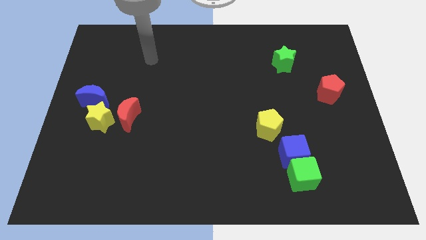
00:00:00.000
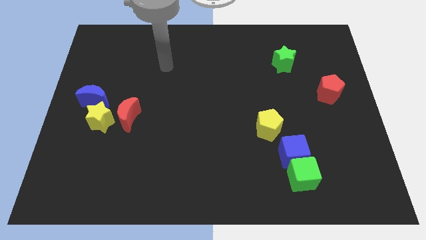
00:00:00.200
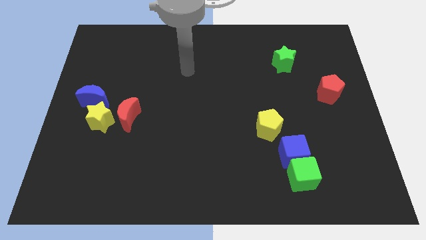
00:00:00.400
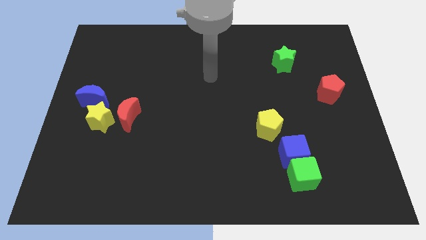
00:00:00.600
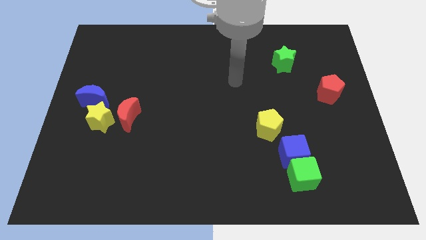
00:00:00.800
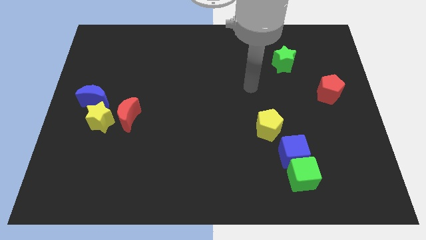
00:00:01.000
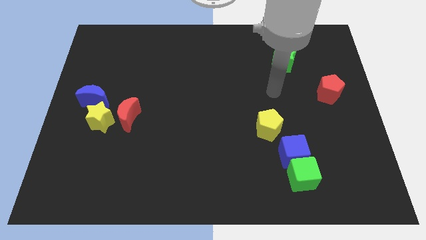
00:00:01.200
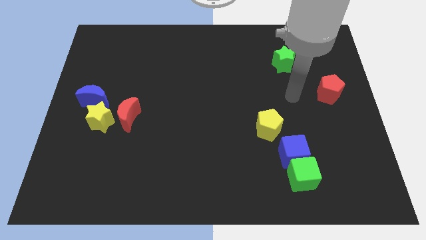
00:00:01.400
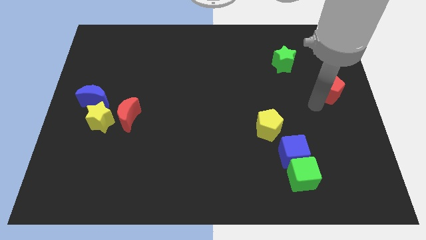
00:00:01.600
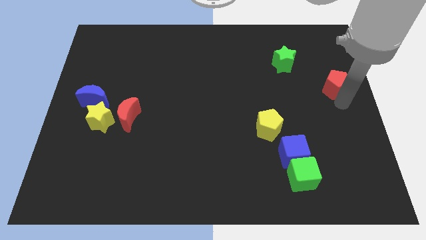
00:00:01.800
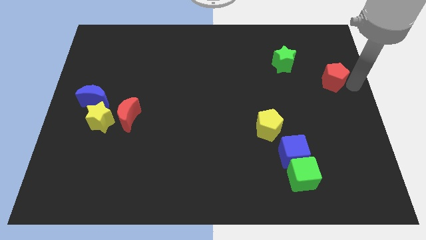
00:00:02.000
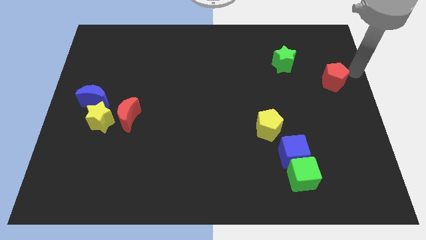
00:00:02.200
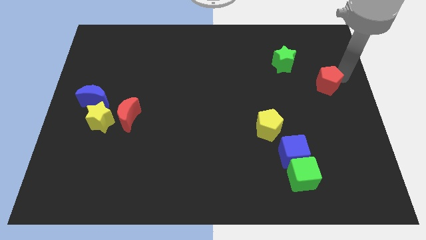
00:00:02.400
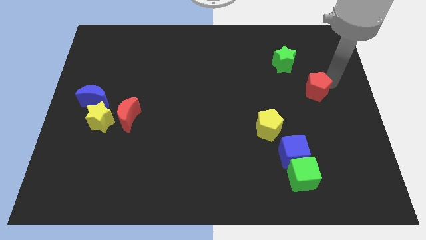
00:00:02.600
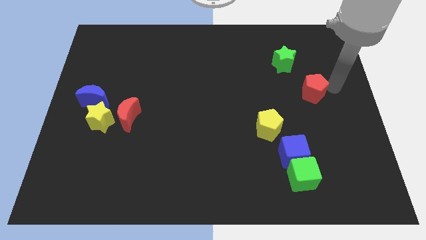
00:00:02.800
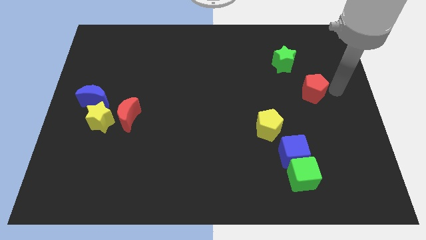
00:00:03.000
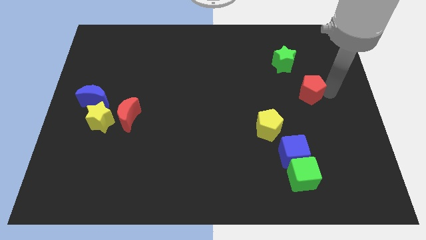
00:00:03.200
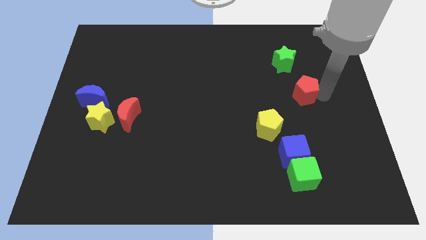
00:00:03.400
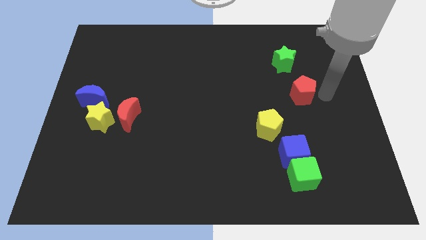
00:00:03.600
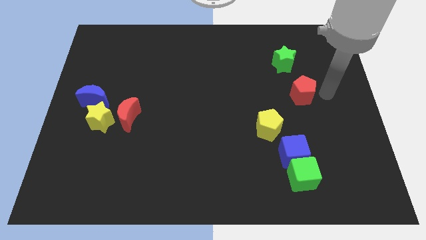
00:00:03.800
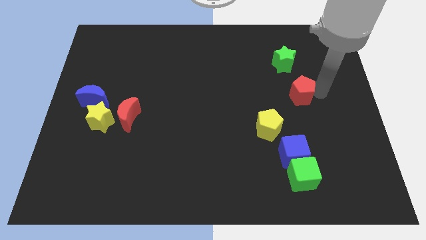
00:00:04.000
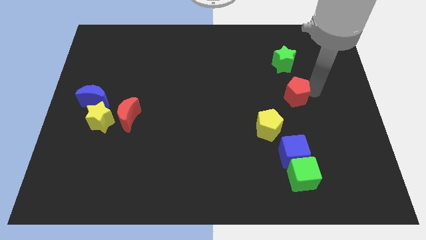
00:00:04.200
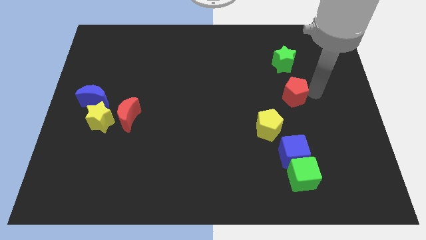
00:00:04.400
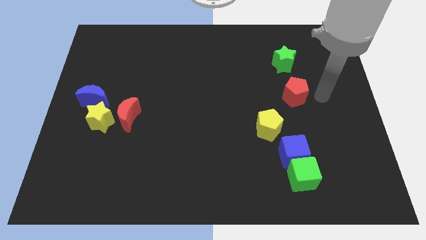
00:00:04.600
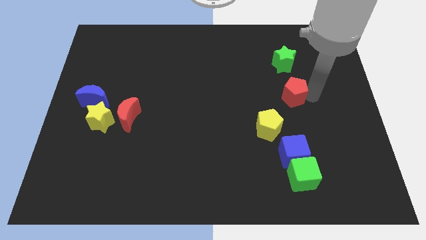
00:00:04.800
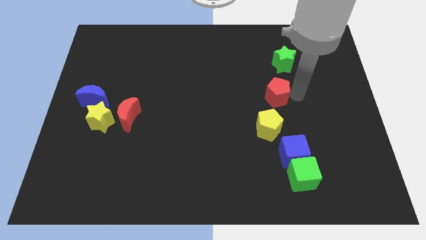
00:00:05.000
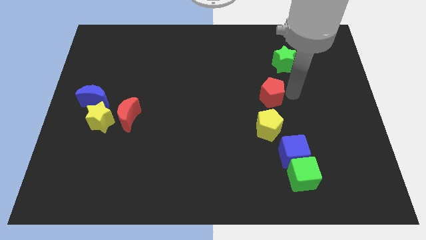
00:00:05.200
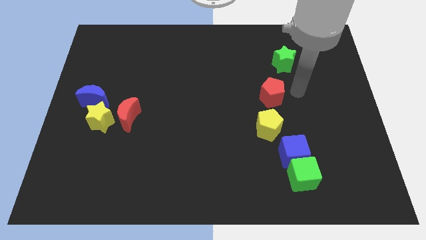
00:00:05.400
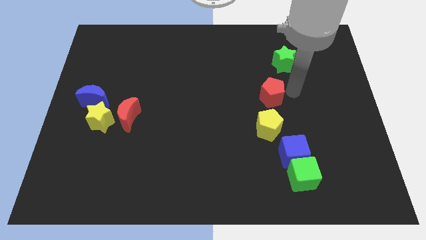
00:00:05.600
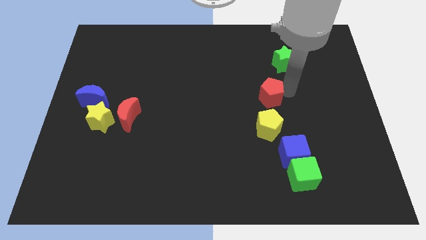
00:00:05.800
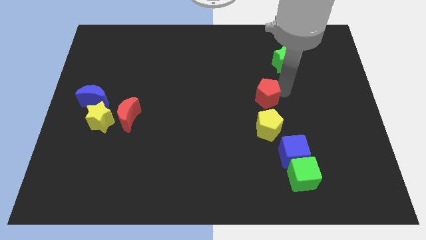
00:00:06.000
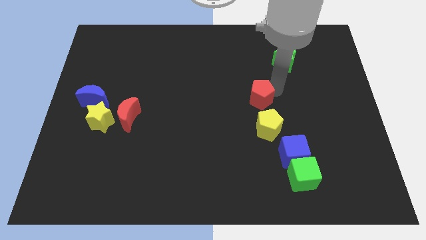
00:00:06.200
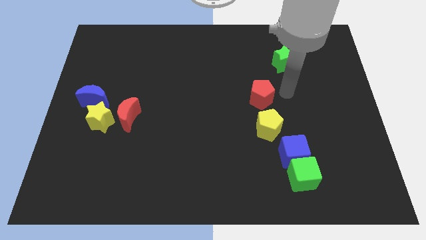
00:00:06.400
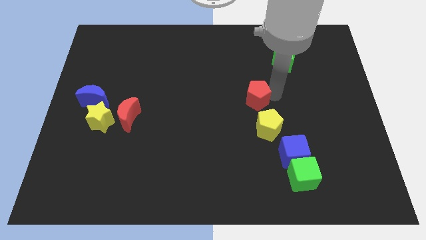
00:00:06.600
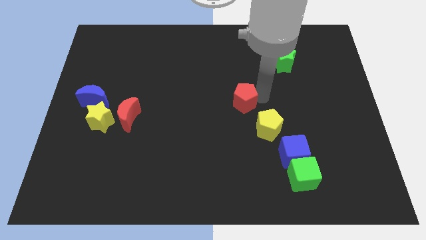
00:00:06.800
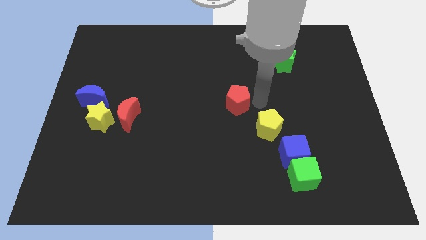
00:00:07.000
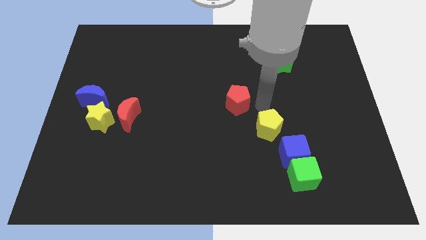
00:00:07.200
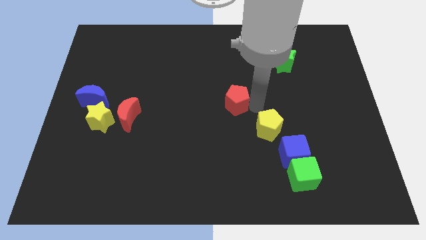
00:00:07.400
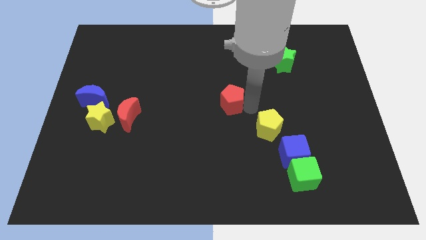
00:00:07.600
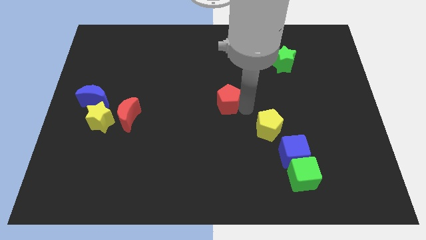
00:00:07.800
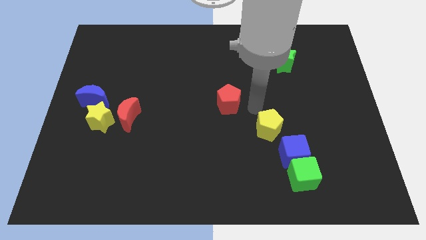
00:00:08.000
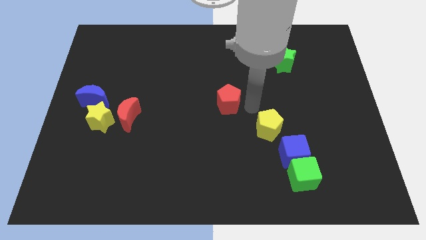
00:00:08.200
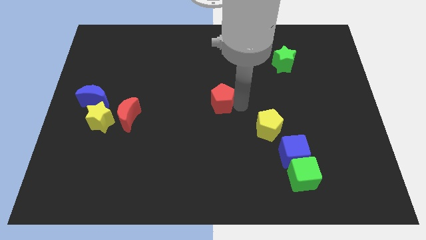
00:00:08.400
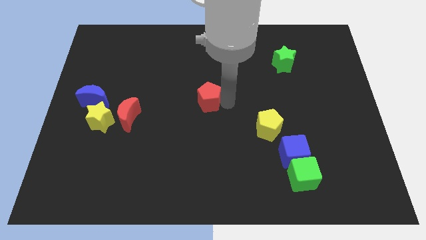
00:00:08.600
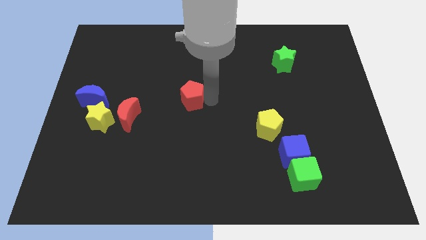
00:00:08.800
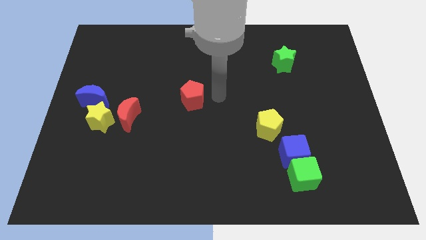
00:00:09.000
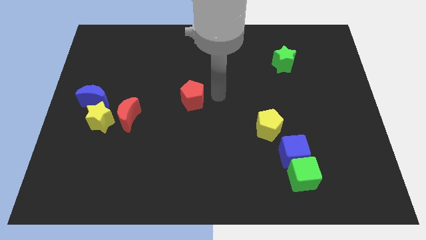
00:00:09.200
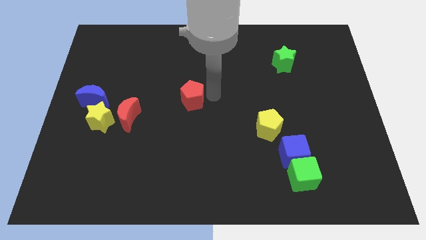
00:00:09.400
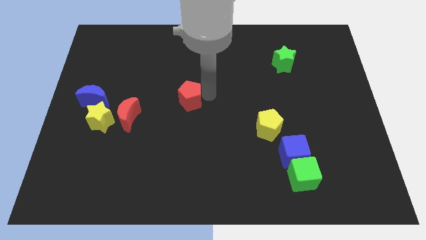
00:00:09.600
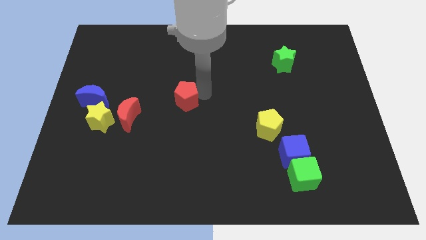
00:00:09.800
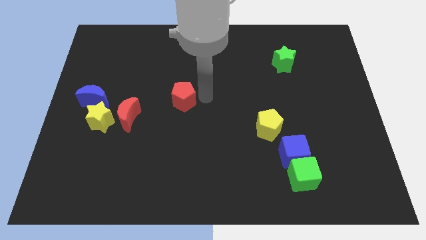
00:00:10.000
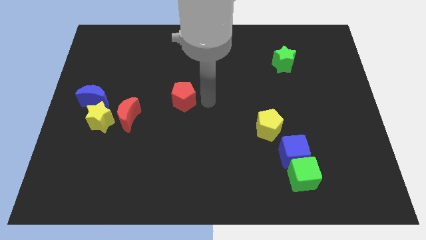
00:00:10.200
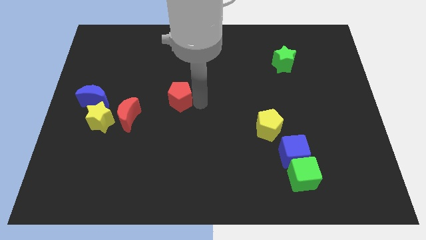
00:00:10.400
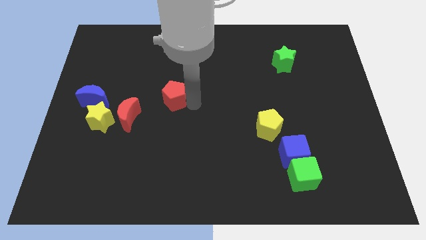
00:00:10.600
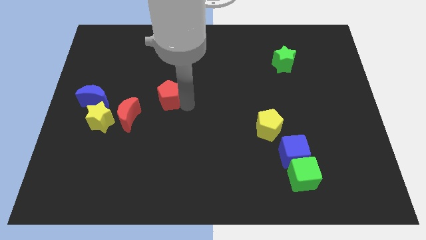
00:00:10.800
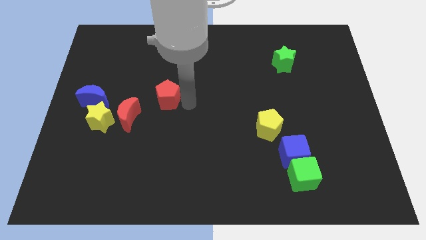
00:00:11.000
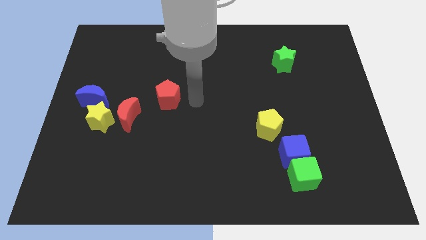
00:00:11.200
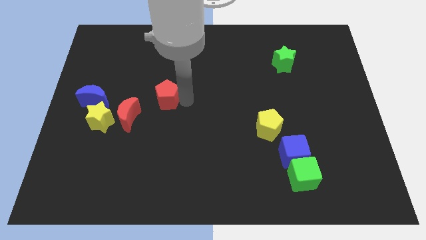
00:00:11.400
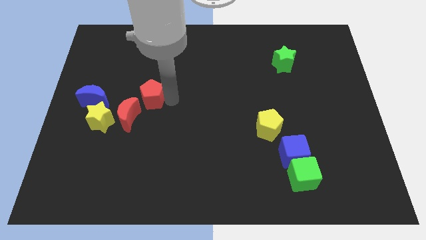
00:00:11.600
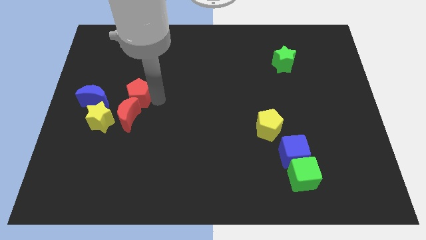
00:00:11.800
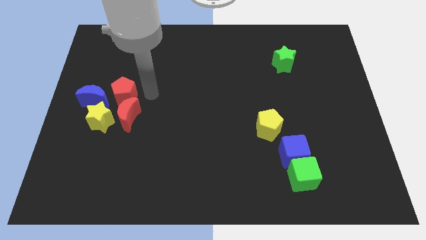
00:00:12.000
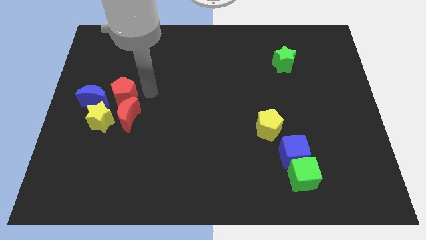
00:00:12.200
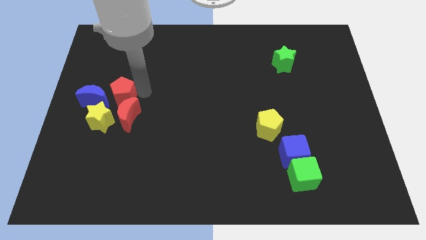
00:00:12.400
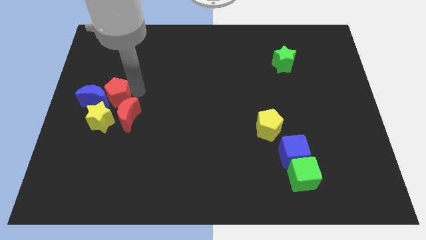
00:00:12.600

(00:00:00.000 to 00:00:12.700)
slide the red pentagon next to the blue moon

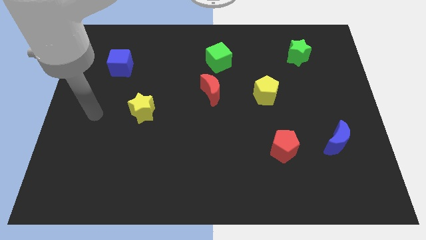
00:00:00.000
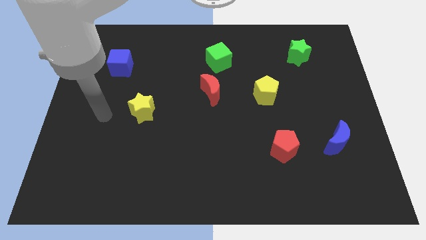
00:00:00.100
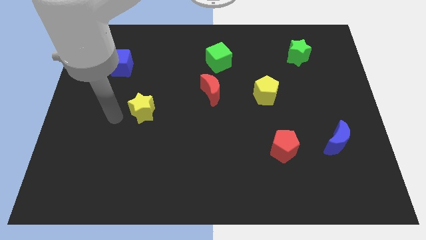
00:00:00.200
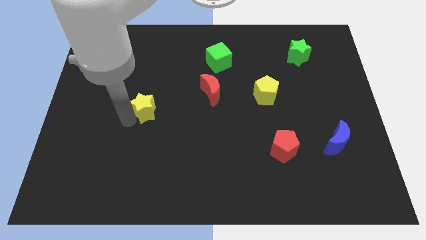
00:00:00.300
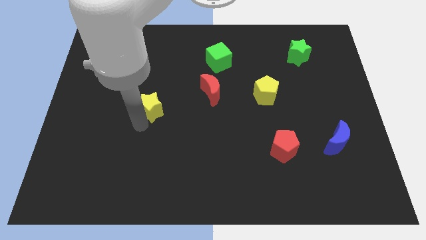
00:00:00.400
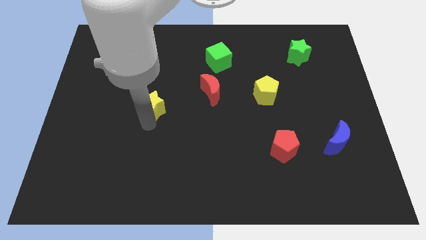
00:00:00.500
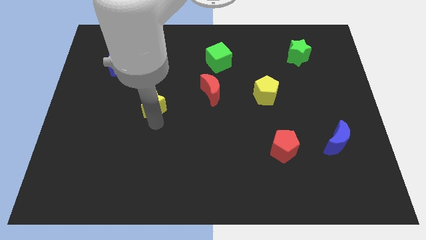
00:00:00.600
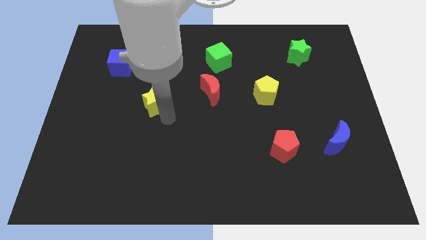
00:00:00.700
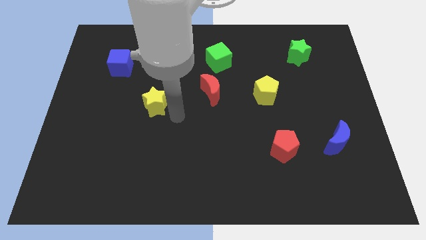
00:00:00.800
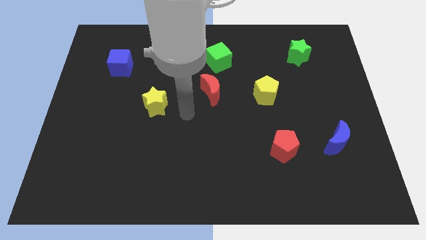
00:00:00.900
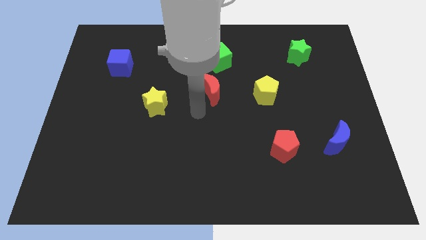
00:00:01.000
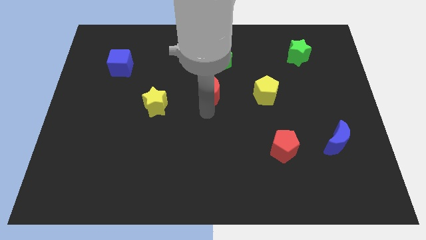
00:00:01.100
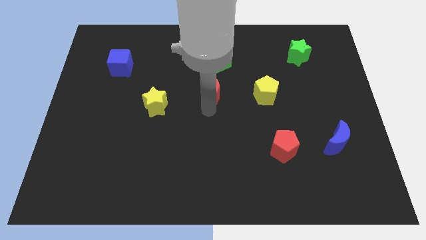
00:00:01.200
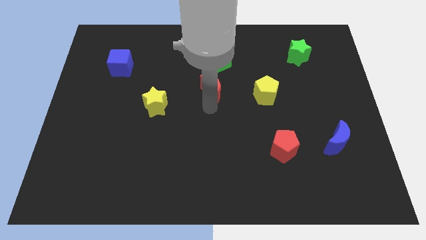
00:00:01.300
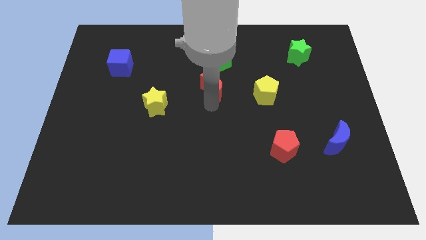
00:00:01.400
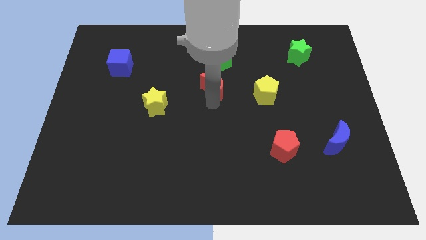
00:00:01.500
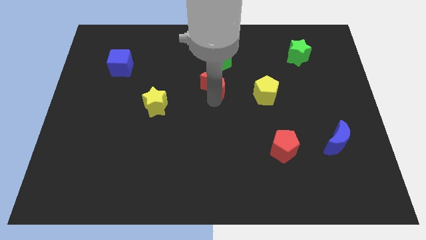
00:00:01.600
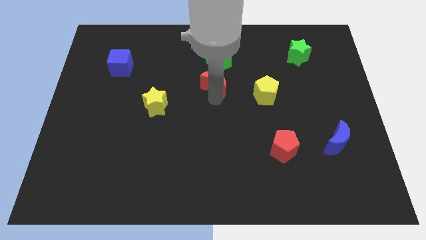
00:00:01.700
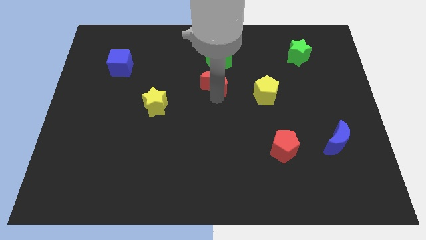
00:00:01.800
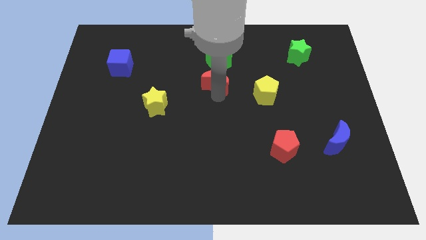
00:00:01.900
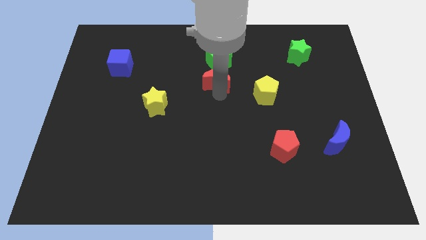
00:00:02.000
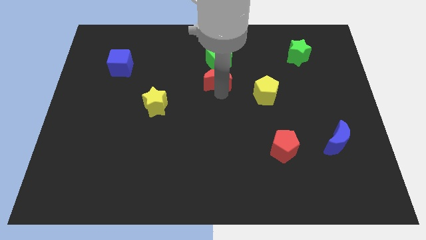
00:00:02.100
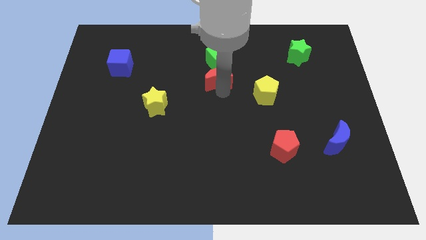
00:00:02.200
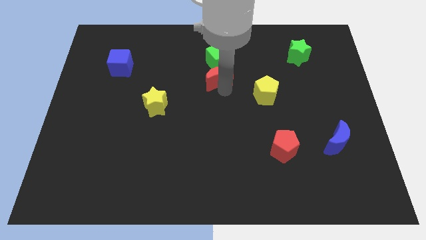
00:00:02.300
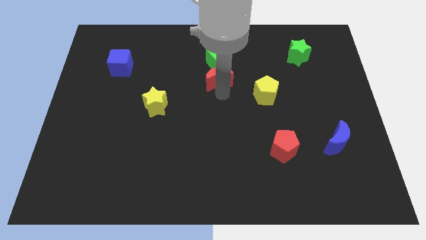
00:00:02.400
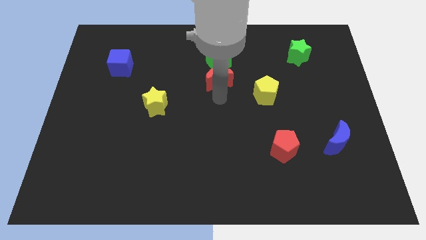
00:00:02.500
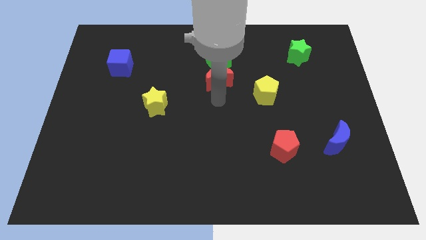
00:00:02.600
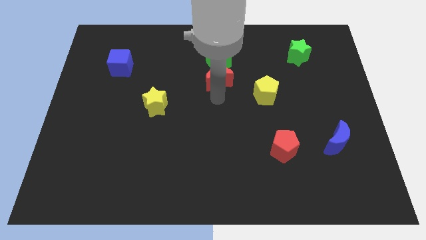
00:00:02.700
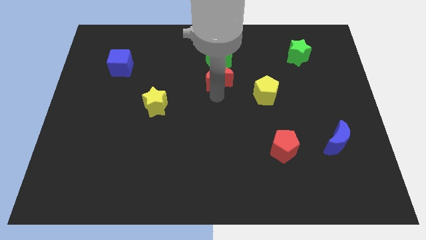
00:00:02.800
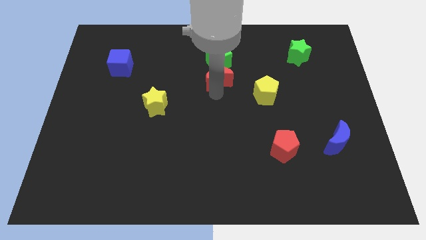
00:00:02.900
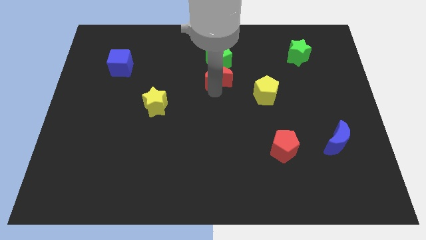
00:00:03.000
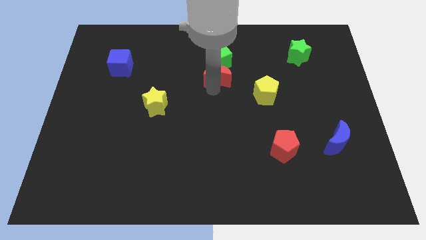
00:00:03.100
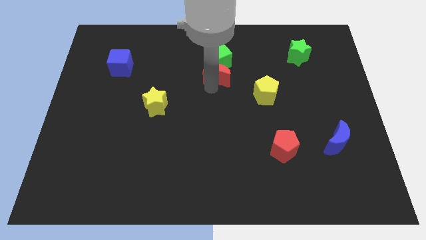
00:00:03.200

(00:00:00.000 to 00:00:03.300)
slide the red moon close to the green cube
